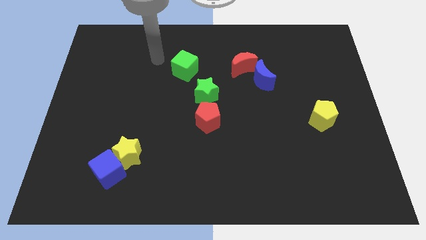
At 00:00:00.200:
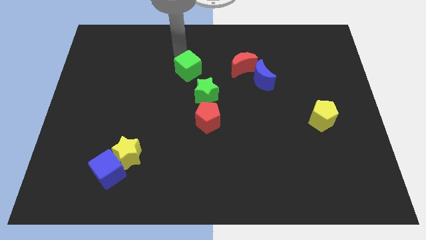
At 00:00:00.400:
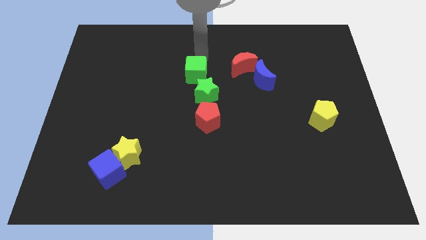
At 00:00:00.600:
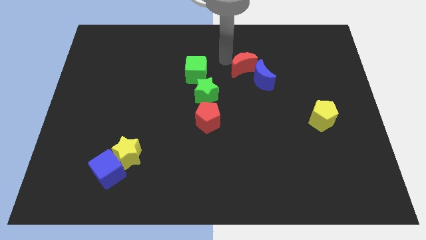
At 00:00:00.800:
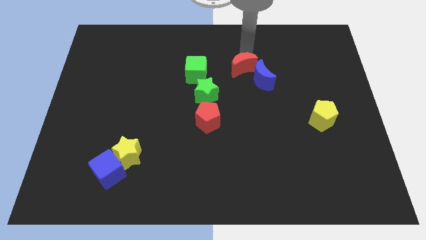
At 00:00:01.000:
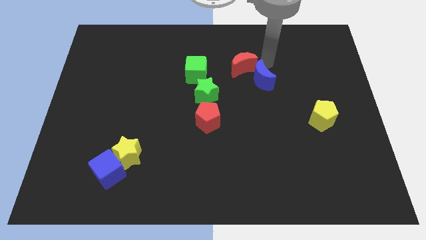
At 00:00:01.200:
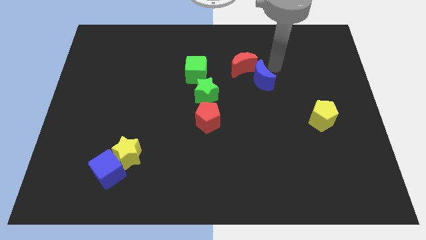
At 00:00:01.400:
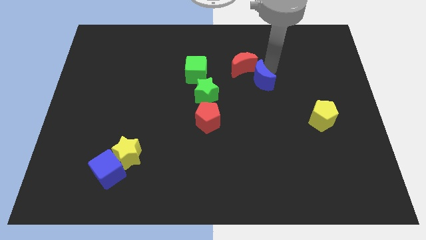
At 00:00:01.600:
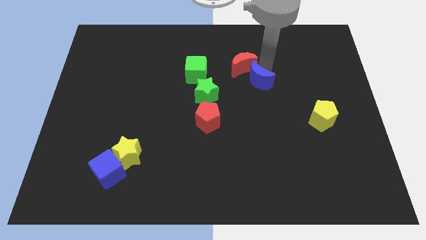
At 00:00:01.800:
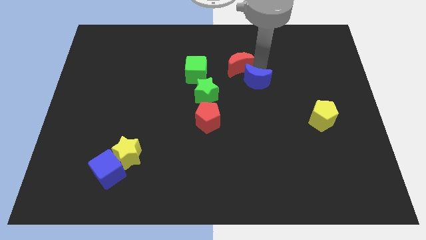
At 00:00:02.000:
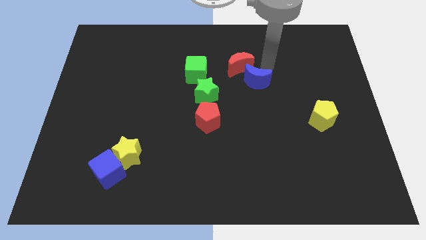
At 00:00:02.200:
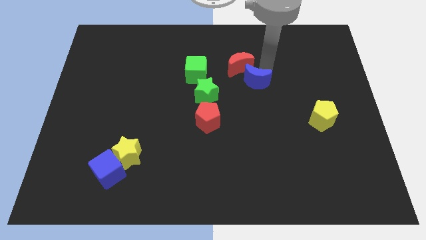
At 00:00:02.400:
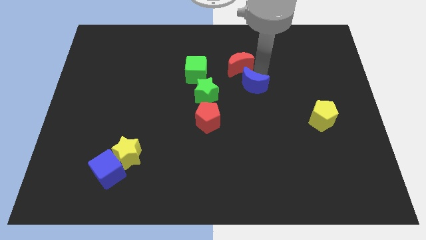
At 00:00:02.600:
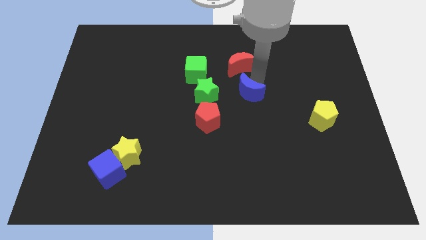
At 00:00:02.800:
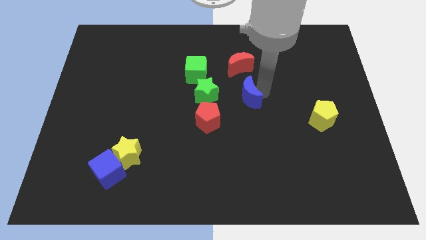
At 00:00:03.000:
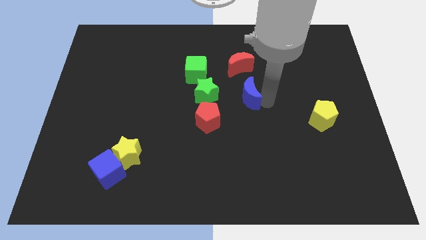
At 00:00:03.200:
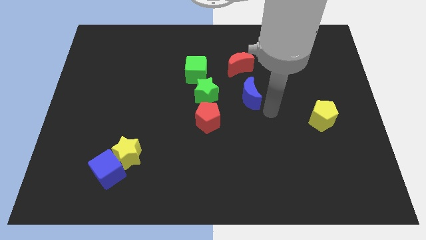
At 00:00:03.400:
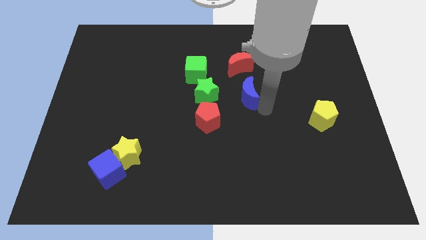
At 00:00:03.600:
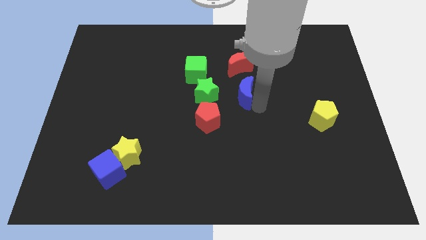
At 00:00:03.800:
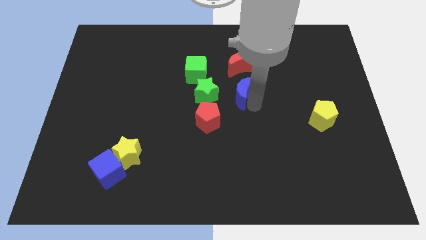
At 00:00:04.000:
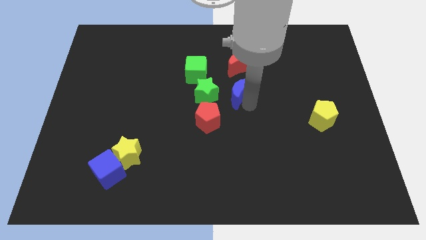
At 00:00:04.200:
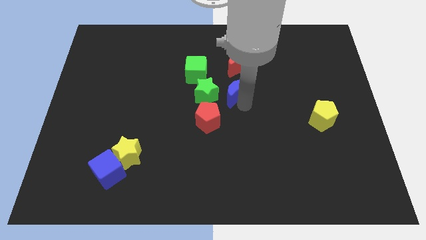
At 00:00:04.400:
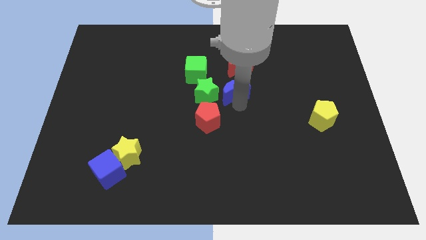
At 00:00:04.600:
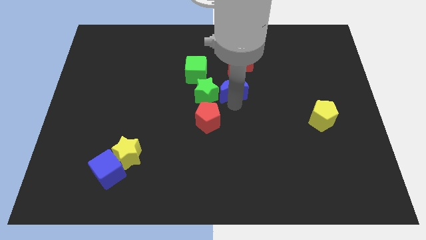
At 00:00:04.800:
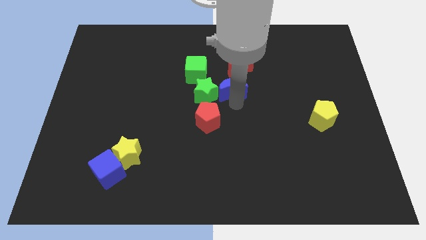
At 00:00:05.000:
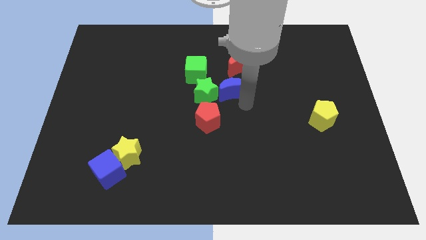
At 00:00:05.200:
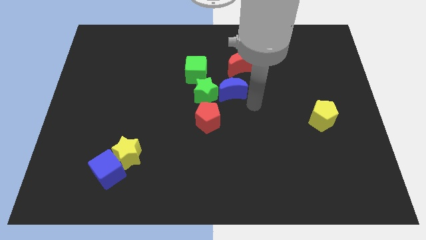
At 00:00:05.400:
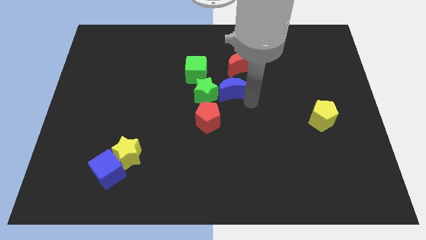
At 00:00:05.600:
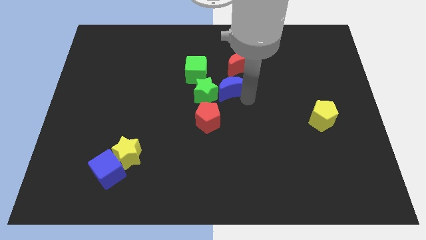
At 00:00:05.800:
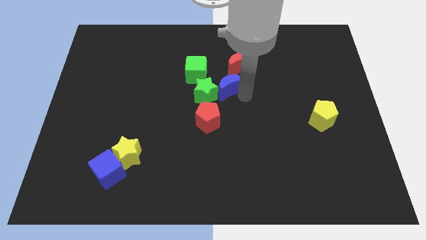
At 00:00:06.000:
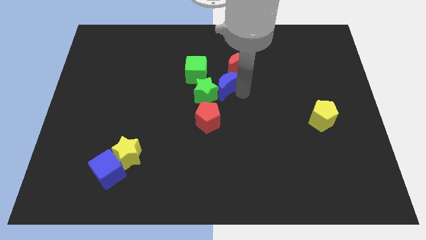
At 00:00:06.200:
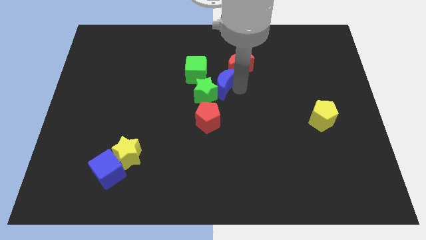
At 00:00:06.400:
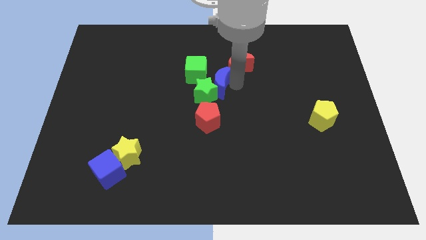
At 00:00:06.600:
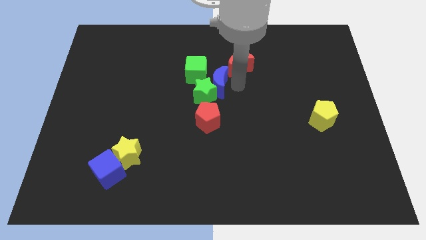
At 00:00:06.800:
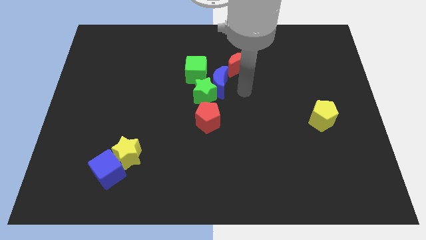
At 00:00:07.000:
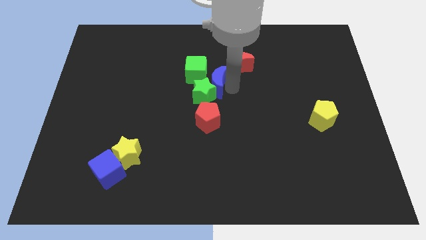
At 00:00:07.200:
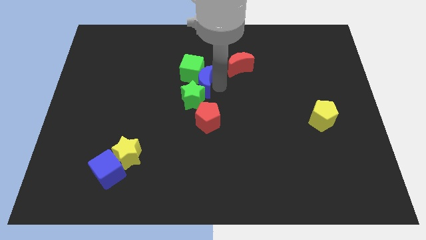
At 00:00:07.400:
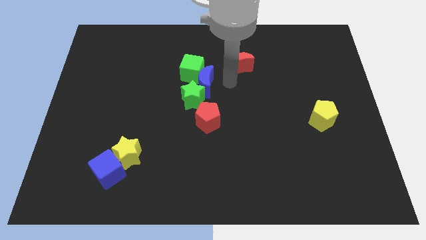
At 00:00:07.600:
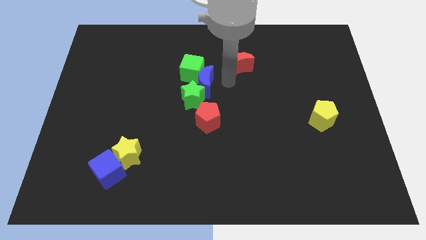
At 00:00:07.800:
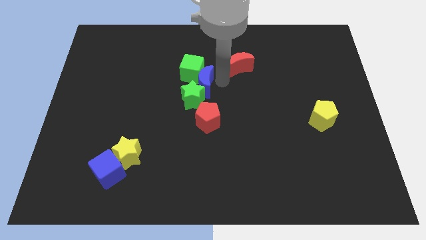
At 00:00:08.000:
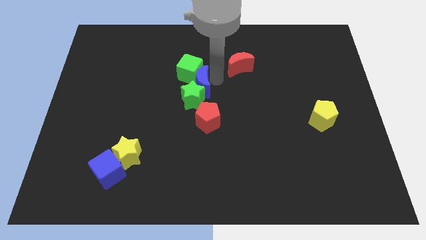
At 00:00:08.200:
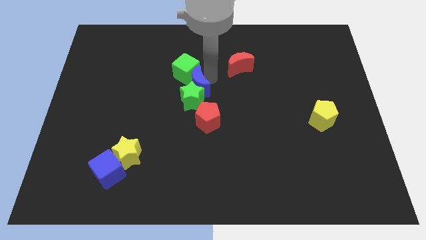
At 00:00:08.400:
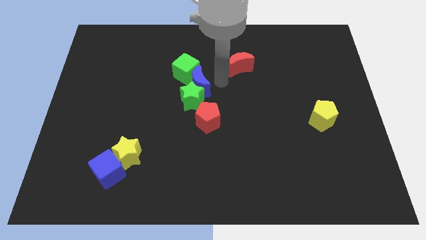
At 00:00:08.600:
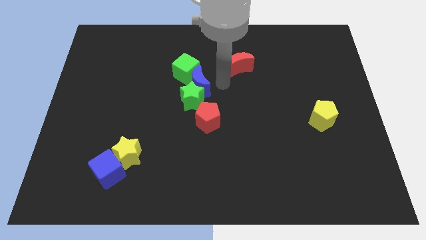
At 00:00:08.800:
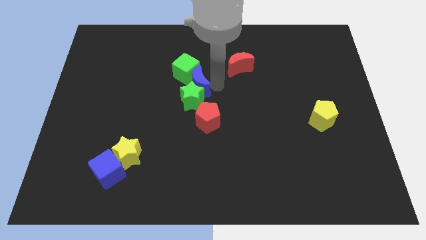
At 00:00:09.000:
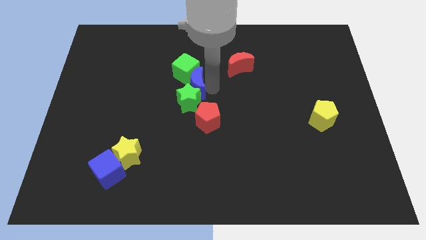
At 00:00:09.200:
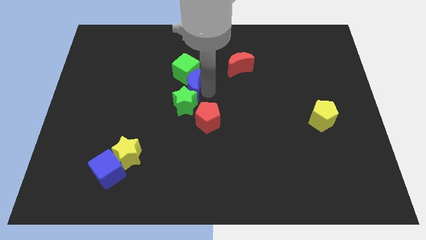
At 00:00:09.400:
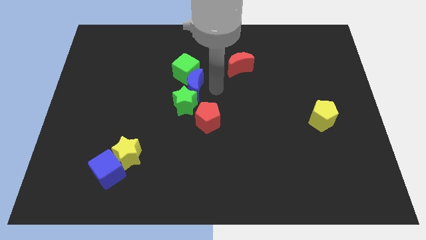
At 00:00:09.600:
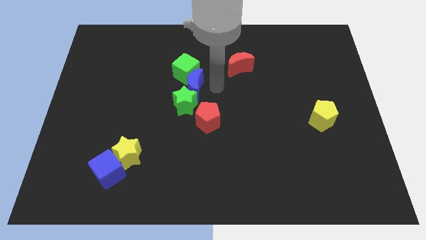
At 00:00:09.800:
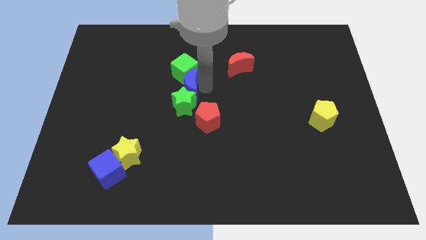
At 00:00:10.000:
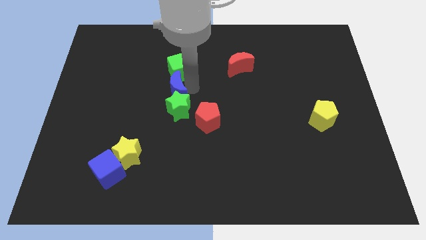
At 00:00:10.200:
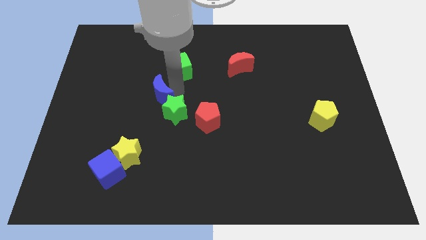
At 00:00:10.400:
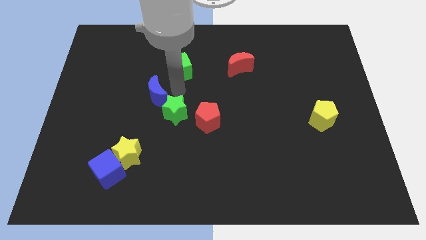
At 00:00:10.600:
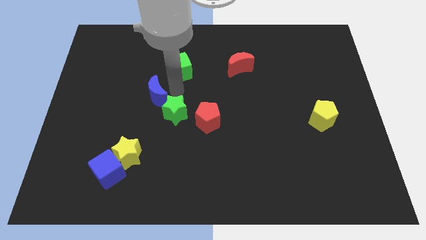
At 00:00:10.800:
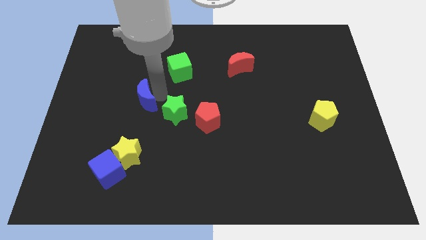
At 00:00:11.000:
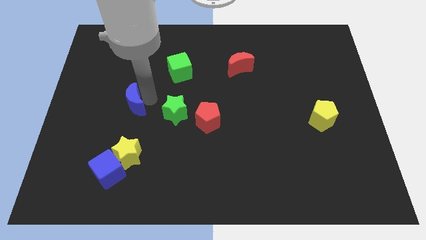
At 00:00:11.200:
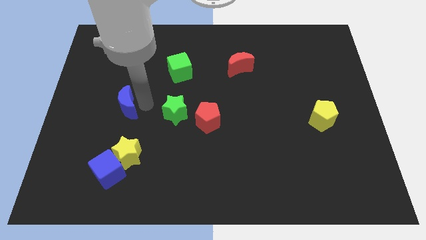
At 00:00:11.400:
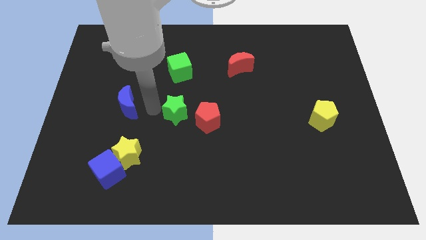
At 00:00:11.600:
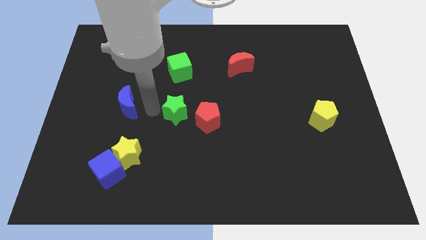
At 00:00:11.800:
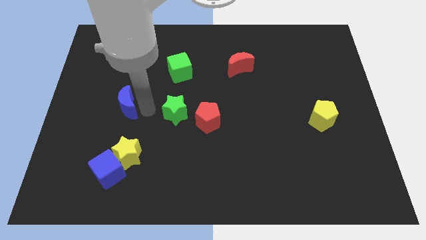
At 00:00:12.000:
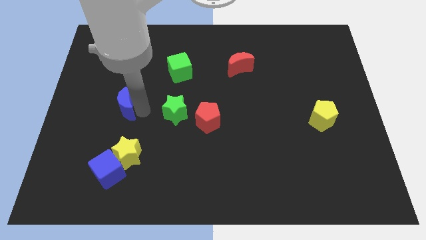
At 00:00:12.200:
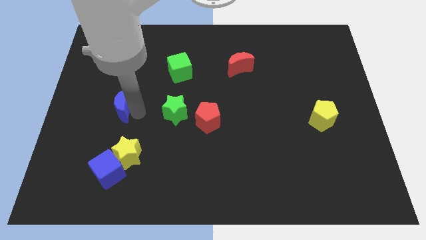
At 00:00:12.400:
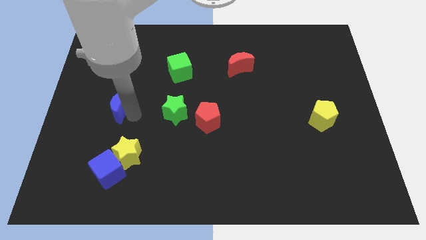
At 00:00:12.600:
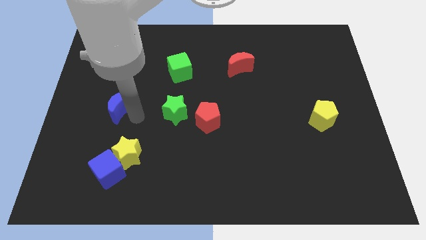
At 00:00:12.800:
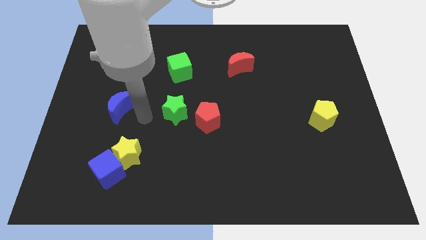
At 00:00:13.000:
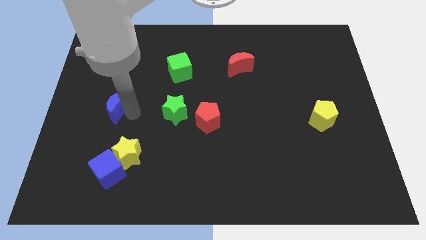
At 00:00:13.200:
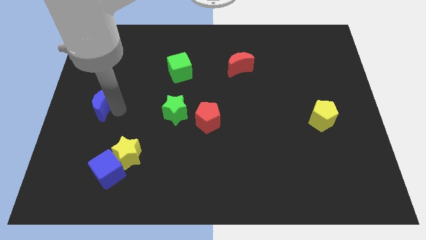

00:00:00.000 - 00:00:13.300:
move the blue moon to the center left
